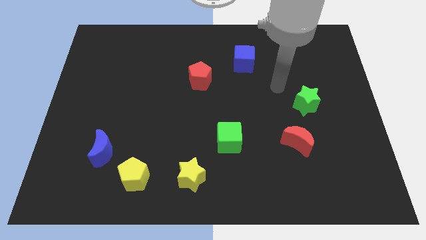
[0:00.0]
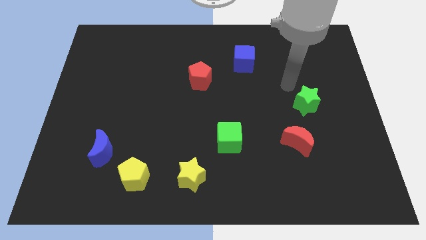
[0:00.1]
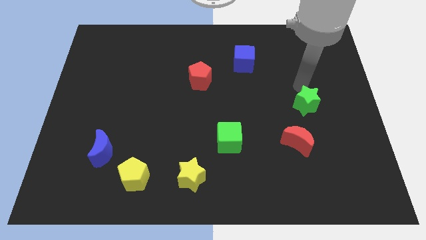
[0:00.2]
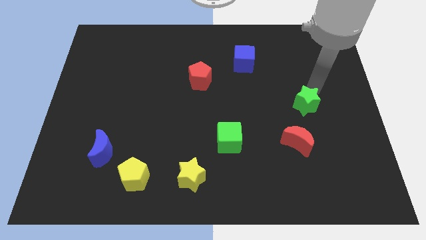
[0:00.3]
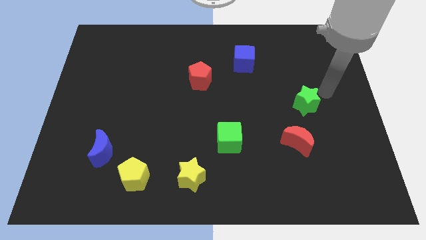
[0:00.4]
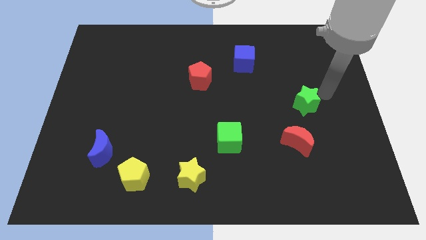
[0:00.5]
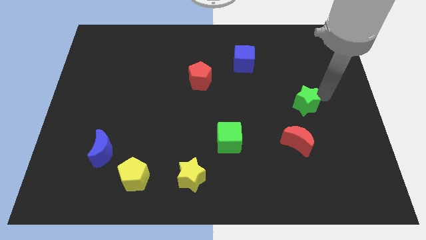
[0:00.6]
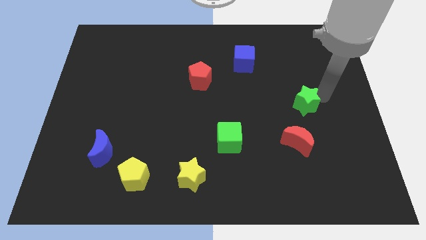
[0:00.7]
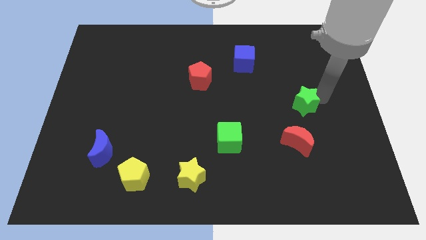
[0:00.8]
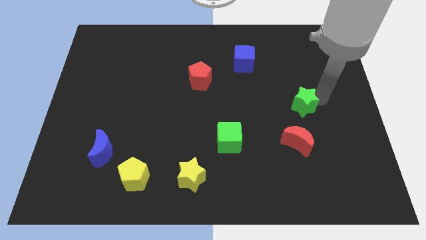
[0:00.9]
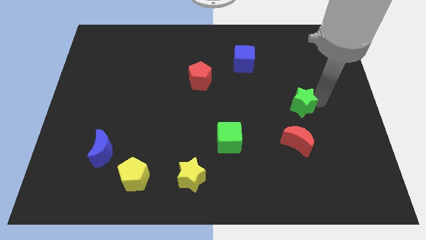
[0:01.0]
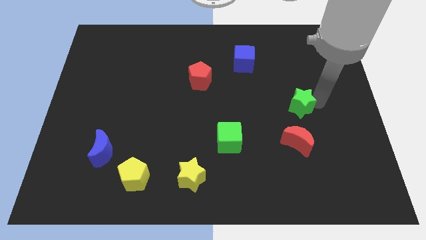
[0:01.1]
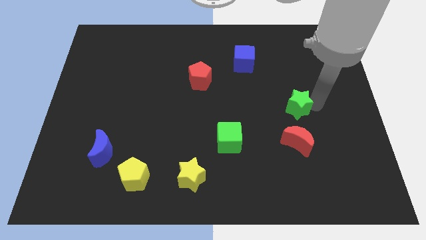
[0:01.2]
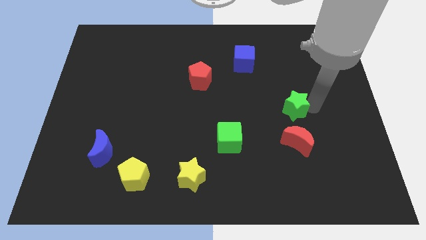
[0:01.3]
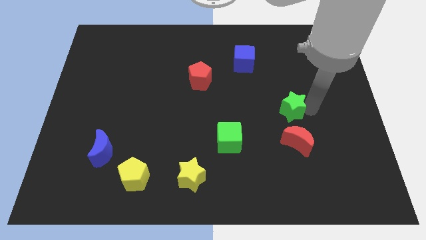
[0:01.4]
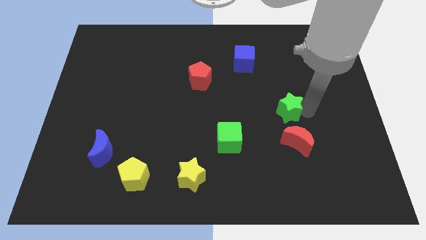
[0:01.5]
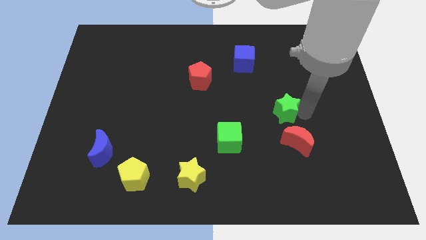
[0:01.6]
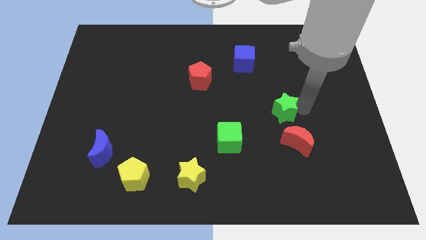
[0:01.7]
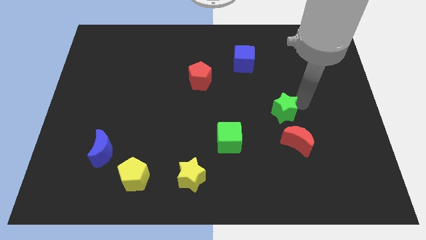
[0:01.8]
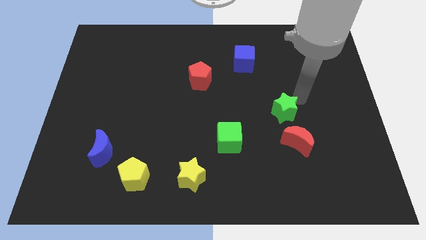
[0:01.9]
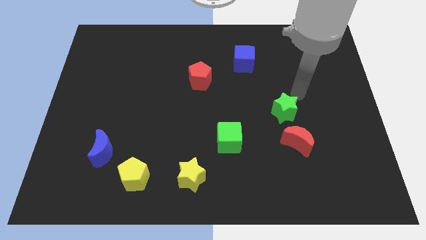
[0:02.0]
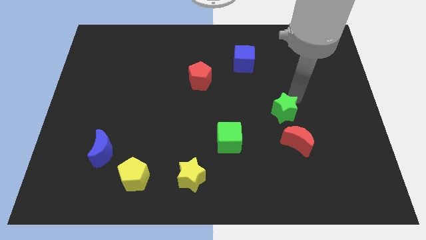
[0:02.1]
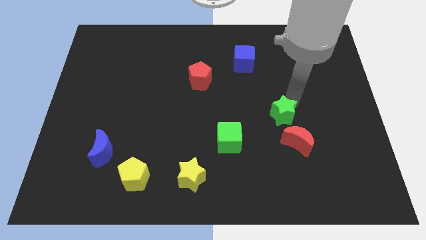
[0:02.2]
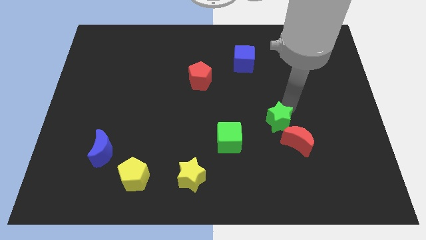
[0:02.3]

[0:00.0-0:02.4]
slightly move the green star diagonally down and to the left

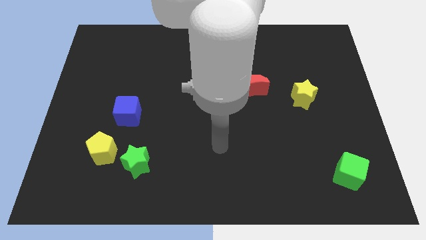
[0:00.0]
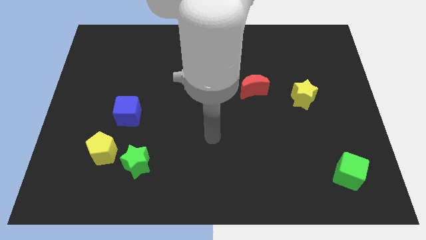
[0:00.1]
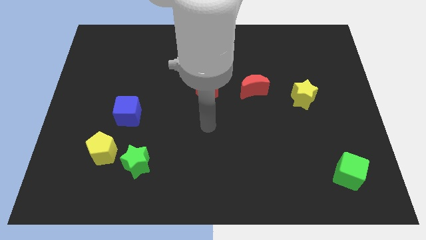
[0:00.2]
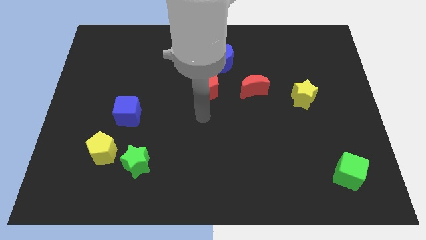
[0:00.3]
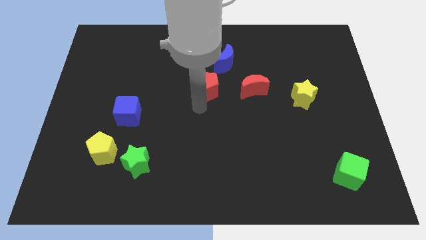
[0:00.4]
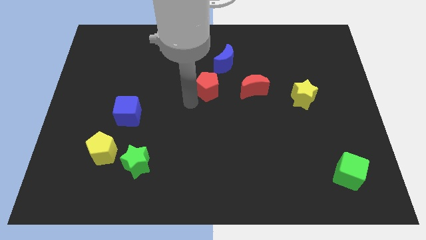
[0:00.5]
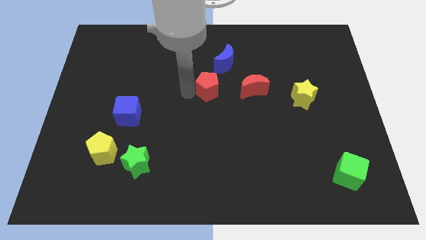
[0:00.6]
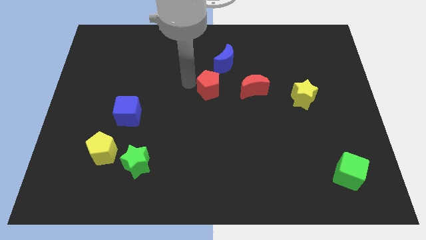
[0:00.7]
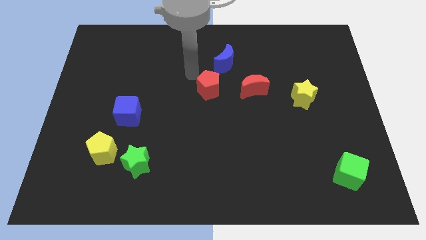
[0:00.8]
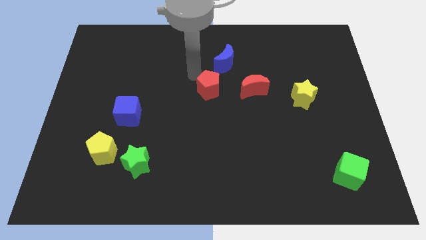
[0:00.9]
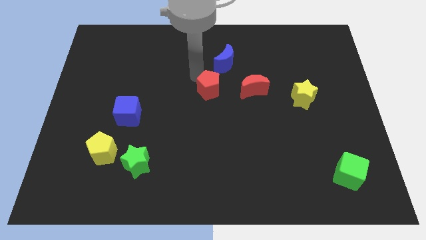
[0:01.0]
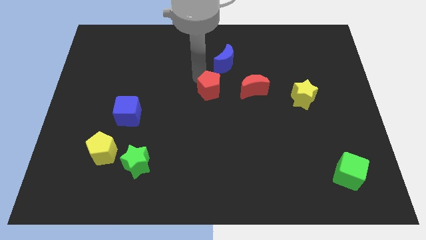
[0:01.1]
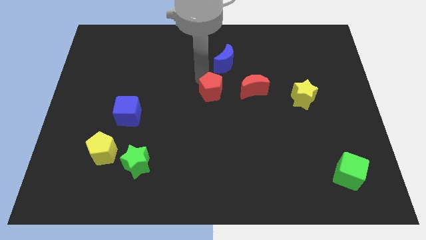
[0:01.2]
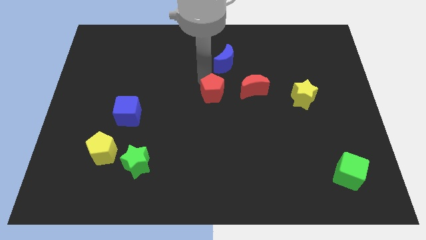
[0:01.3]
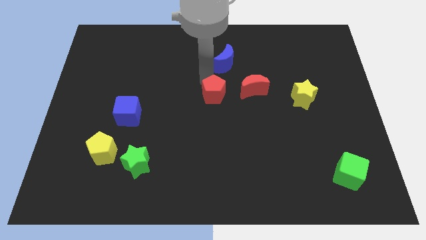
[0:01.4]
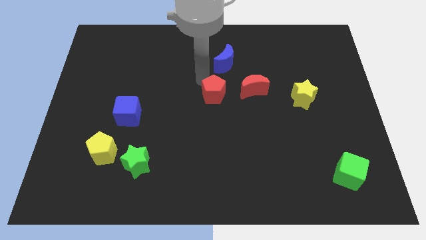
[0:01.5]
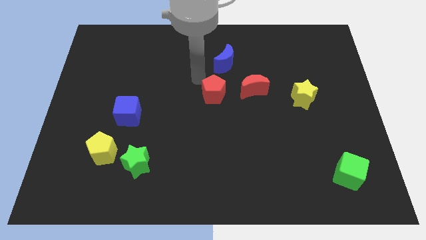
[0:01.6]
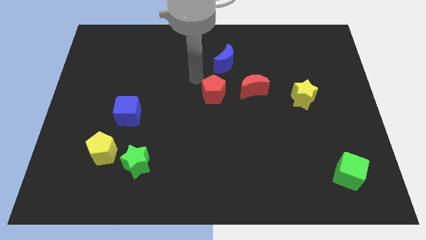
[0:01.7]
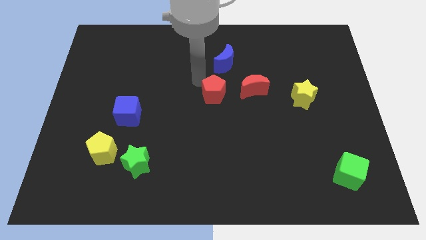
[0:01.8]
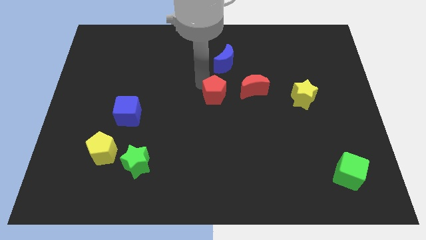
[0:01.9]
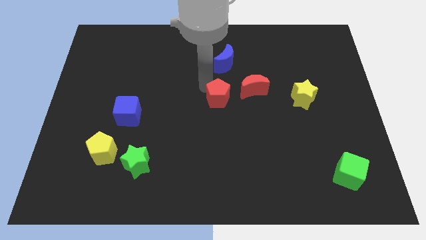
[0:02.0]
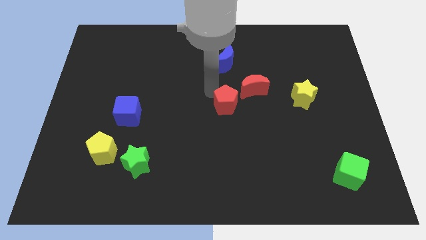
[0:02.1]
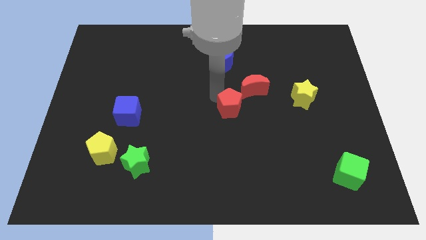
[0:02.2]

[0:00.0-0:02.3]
push the red pentagon a bit diagonally down and to the right

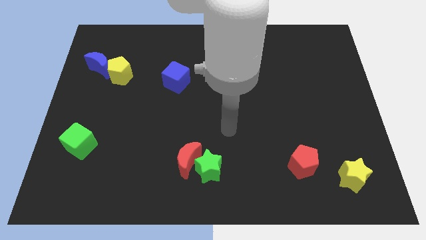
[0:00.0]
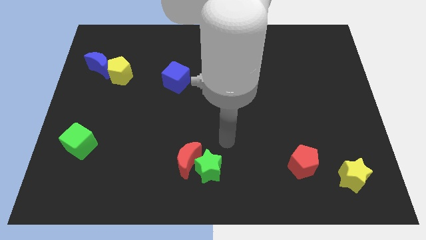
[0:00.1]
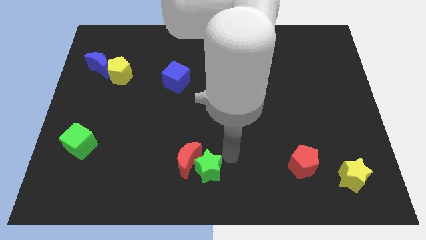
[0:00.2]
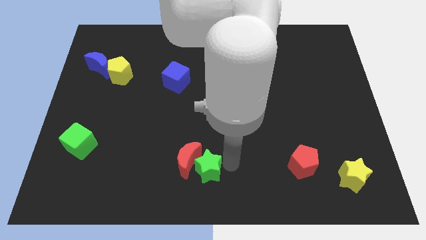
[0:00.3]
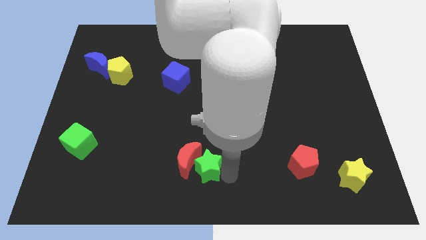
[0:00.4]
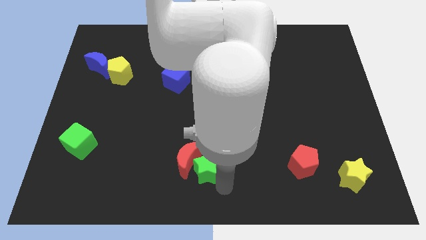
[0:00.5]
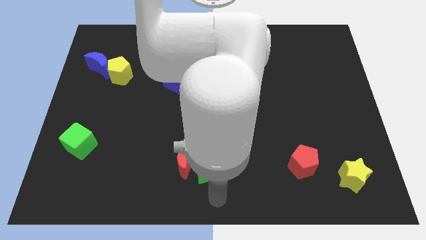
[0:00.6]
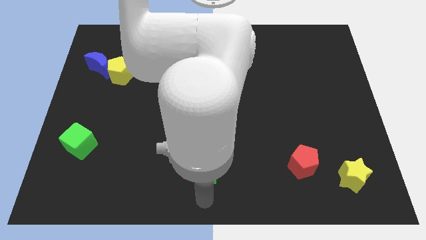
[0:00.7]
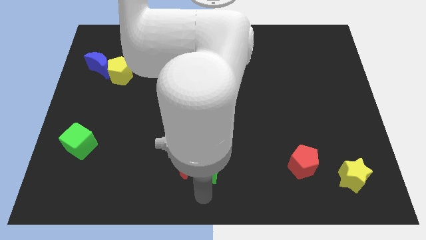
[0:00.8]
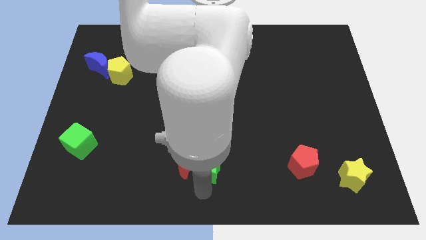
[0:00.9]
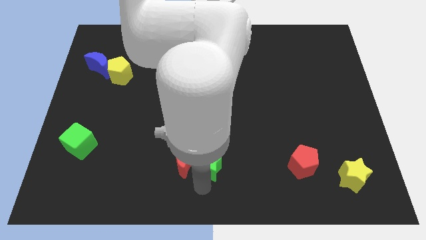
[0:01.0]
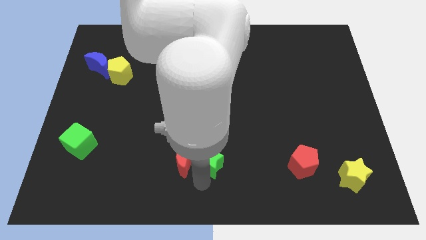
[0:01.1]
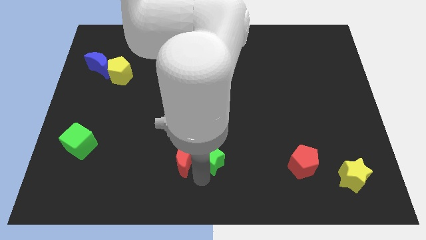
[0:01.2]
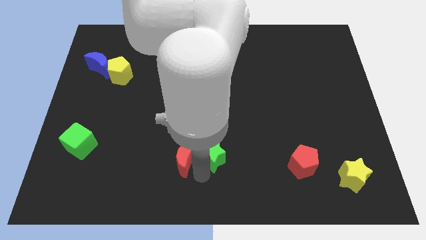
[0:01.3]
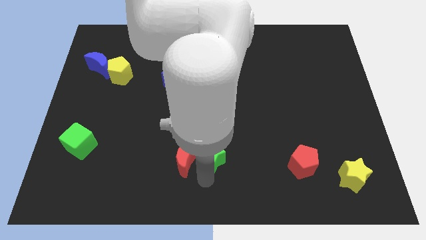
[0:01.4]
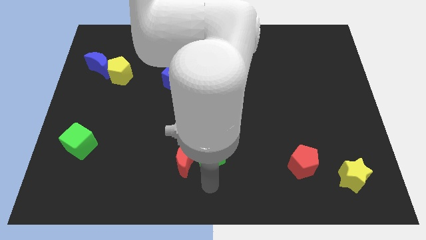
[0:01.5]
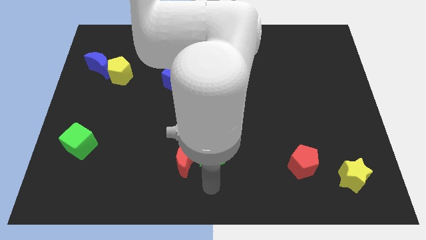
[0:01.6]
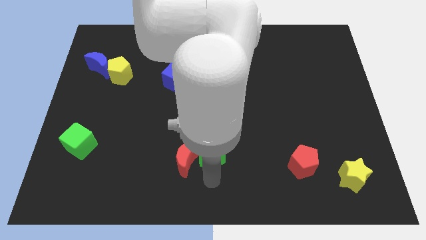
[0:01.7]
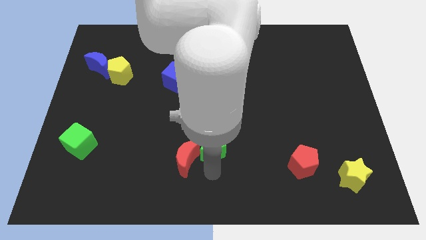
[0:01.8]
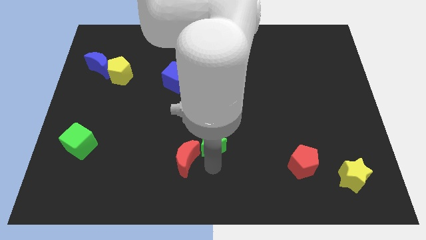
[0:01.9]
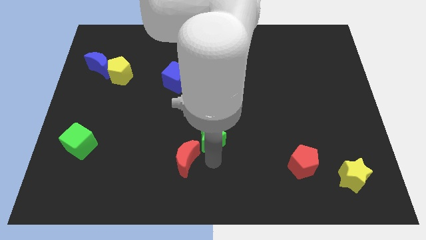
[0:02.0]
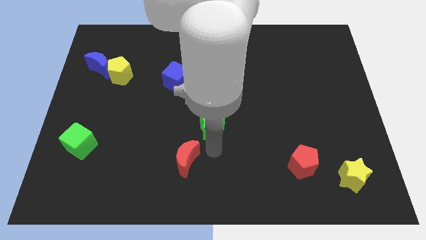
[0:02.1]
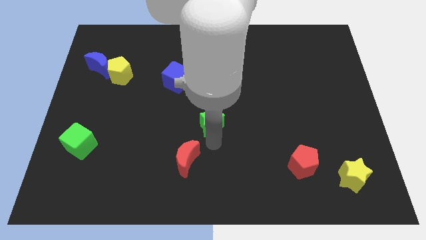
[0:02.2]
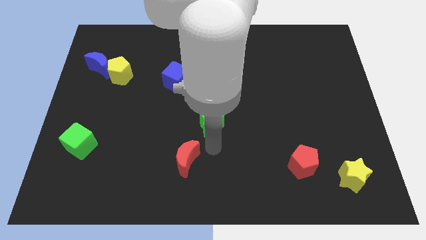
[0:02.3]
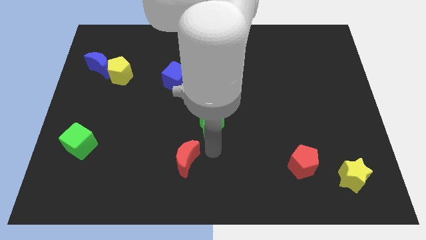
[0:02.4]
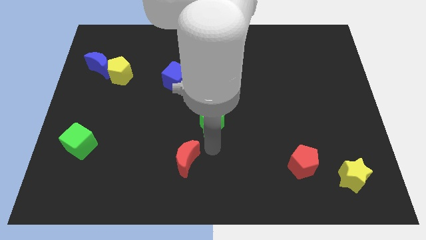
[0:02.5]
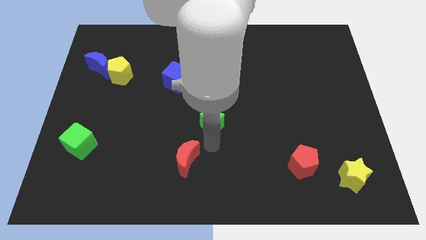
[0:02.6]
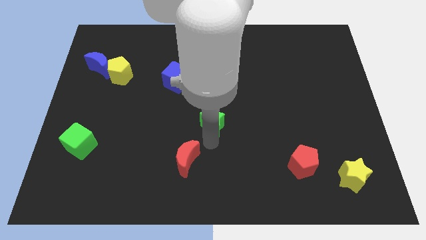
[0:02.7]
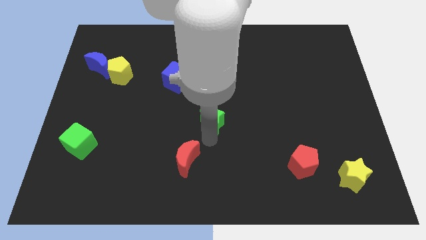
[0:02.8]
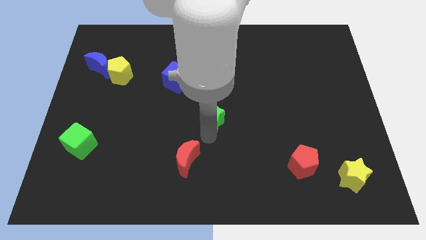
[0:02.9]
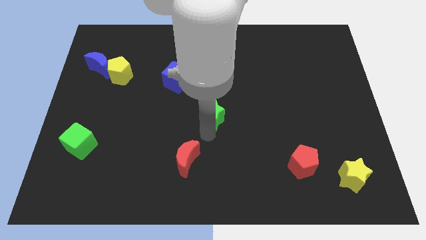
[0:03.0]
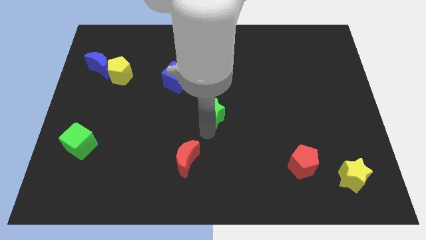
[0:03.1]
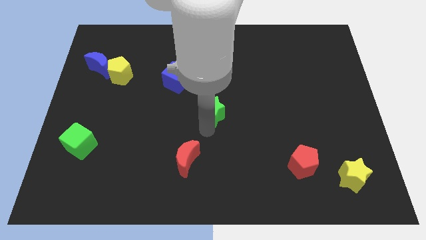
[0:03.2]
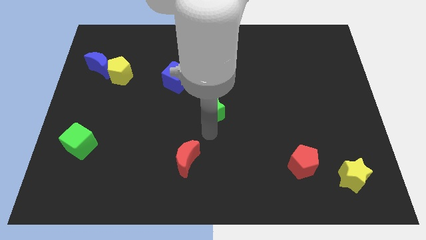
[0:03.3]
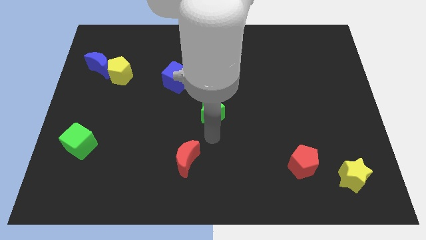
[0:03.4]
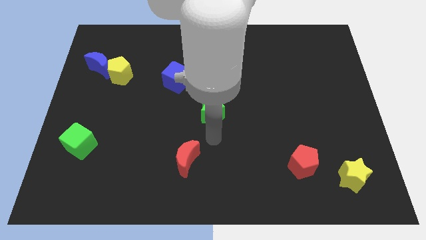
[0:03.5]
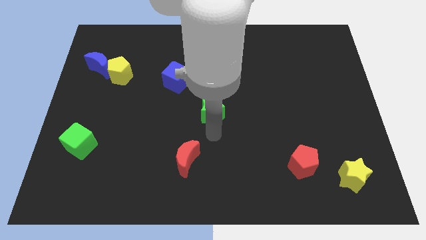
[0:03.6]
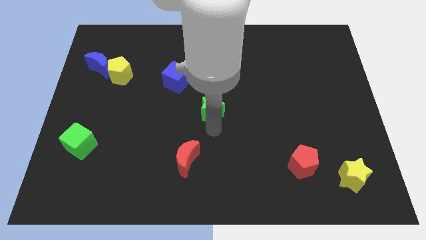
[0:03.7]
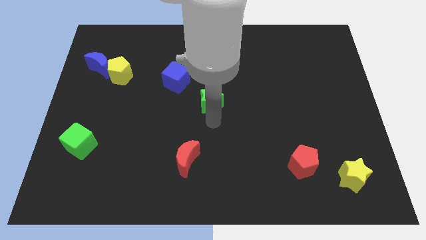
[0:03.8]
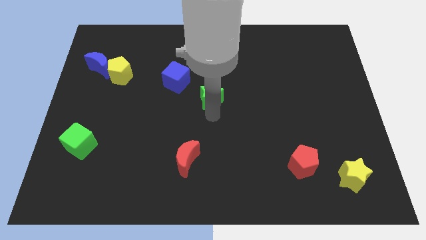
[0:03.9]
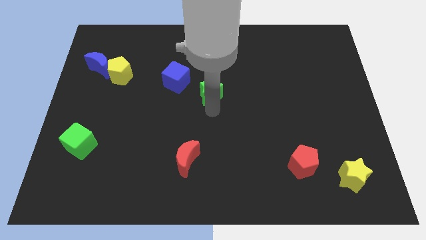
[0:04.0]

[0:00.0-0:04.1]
push the green star up
